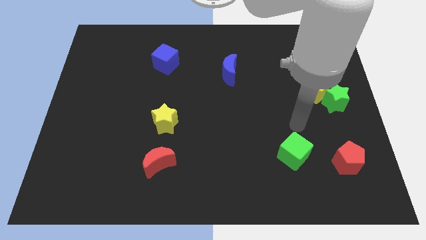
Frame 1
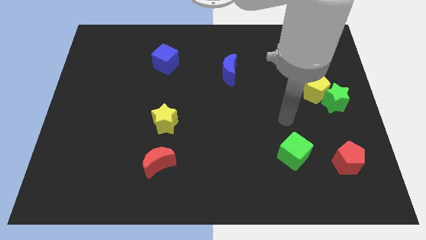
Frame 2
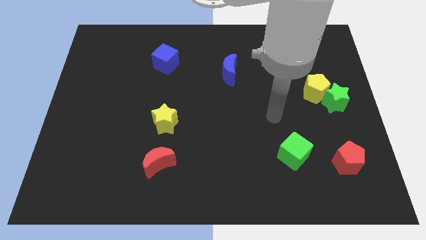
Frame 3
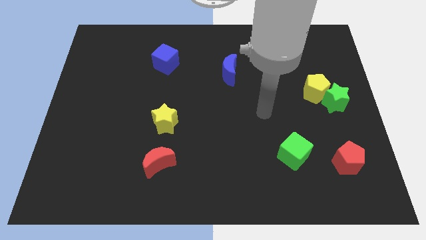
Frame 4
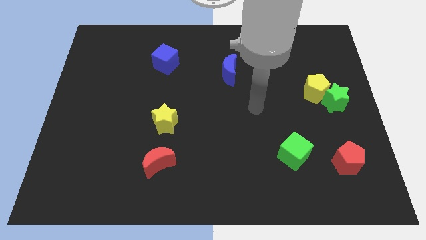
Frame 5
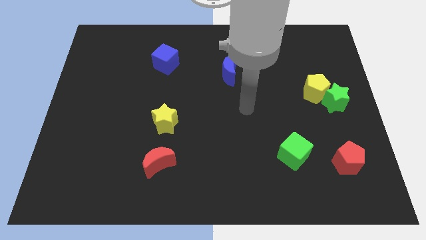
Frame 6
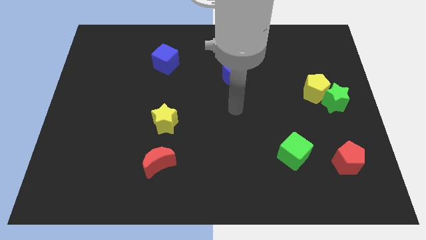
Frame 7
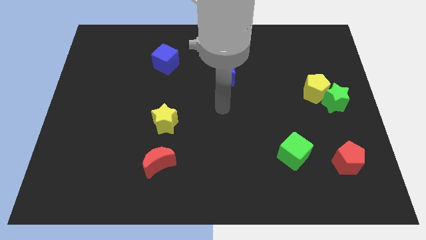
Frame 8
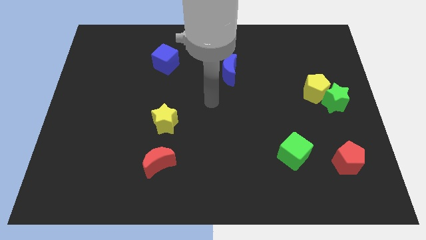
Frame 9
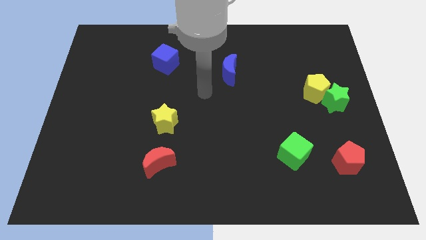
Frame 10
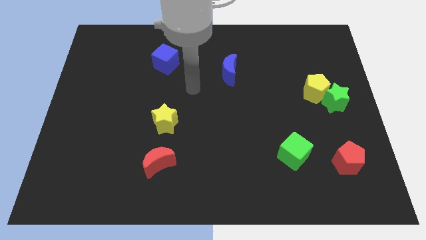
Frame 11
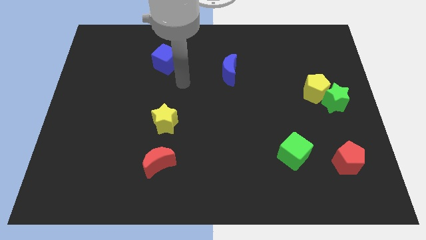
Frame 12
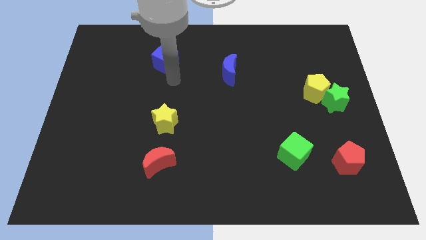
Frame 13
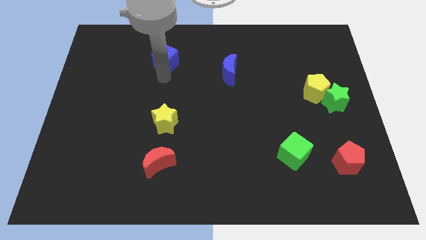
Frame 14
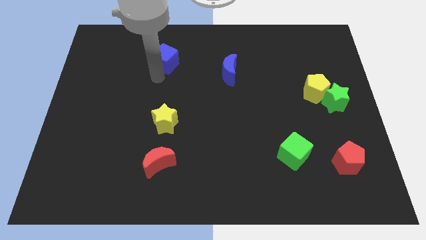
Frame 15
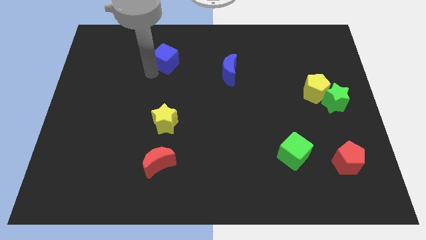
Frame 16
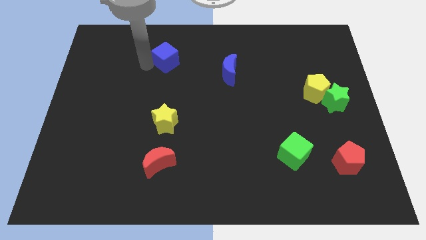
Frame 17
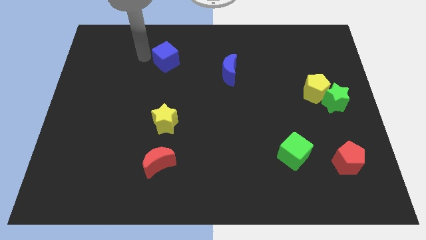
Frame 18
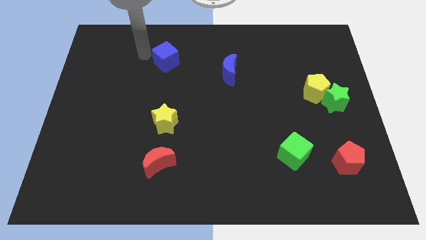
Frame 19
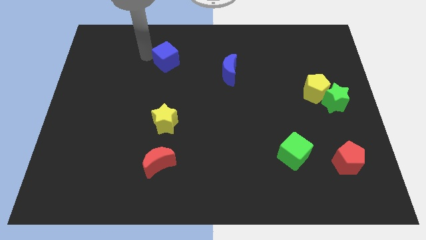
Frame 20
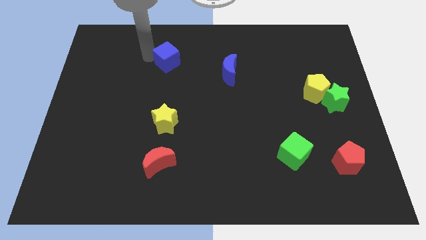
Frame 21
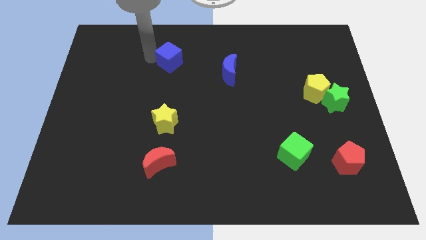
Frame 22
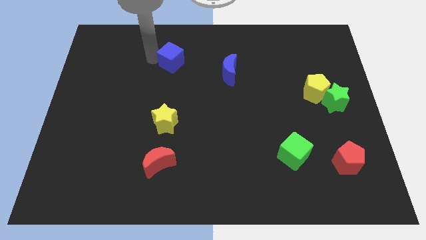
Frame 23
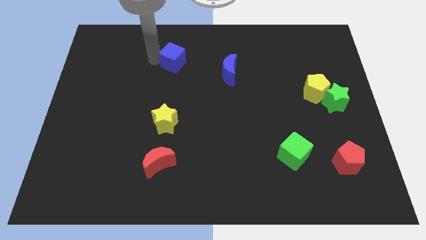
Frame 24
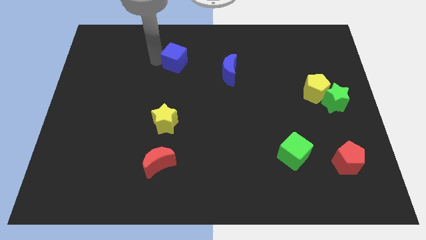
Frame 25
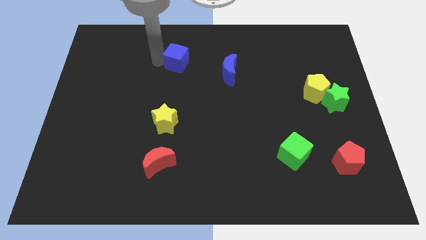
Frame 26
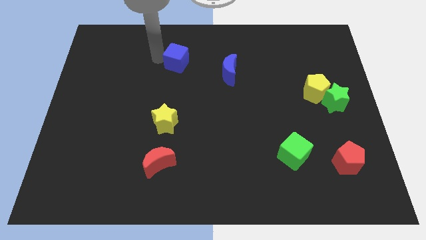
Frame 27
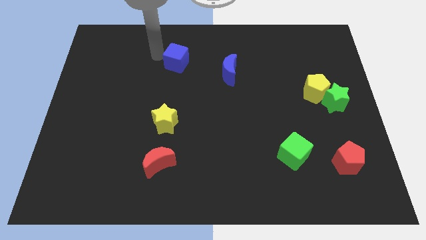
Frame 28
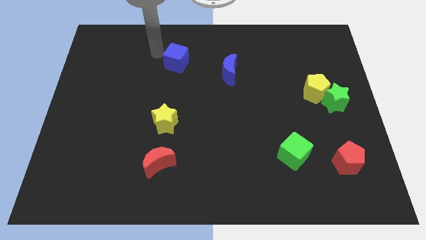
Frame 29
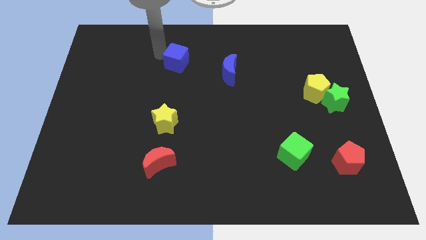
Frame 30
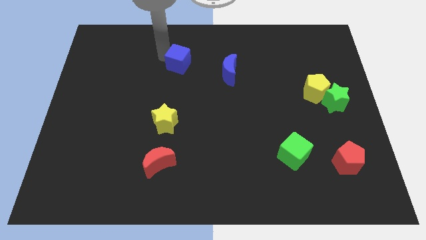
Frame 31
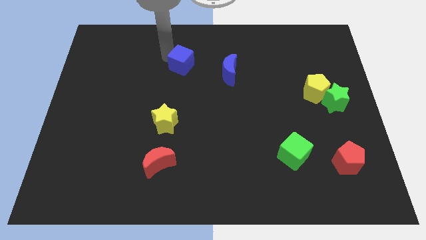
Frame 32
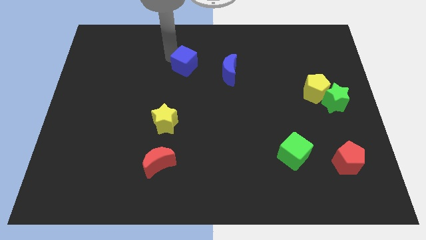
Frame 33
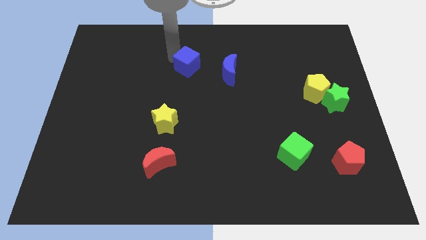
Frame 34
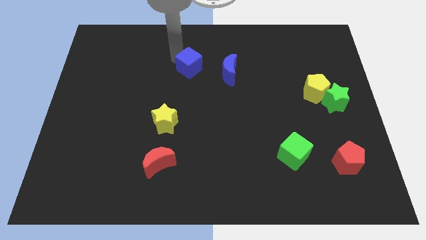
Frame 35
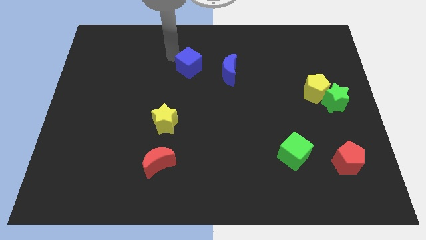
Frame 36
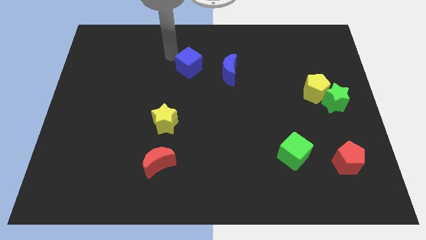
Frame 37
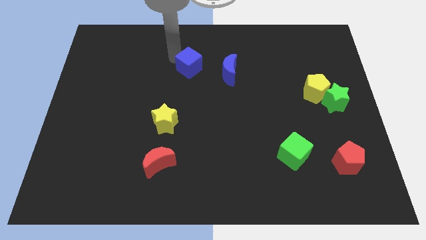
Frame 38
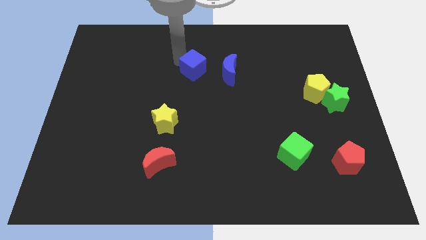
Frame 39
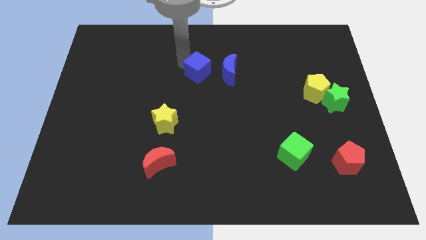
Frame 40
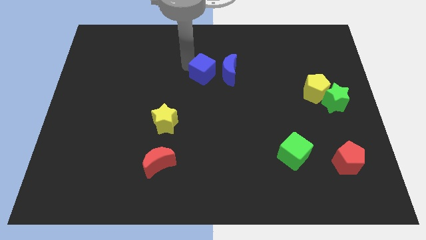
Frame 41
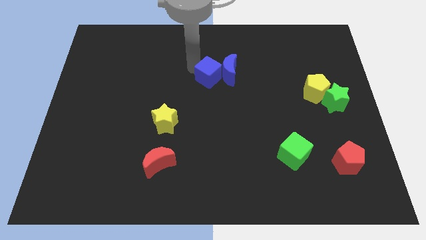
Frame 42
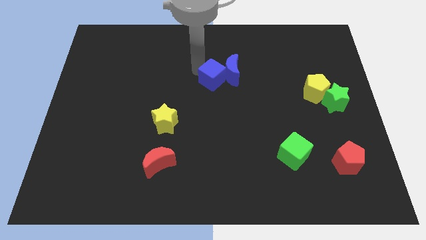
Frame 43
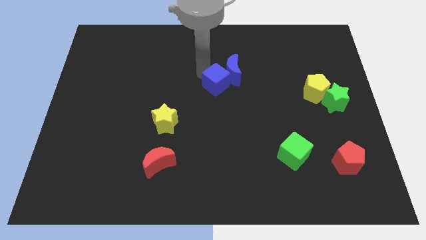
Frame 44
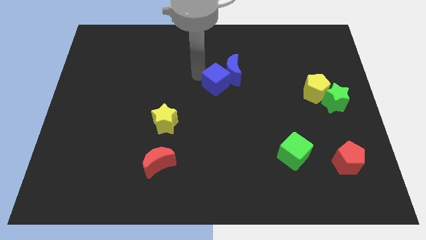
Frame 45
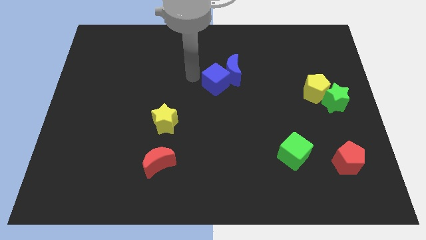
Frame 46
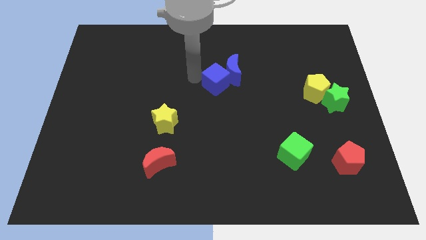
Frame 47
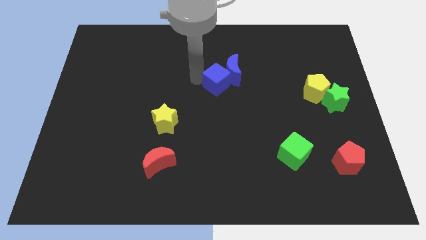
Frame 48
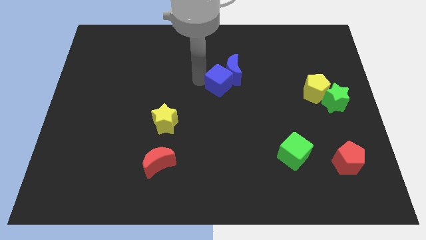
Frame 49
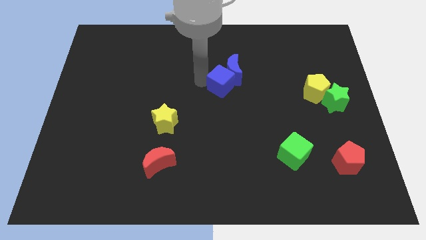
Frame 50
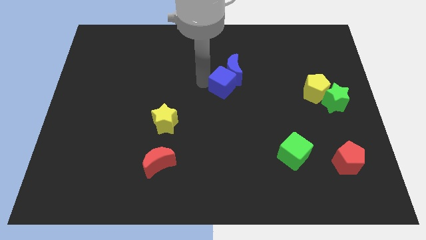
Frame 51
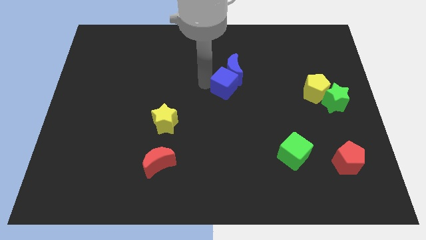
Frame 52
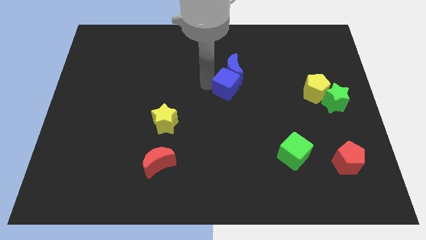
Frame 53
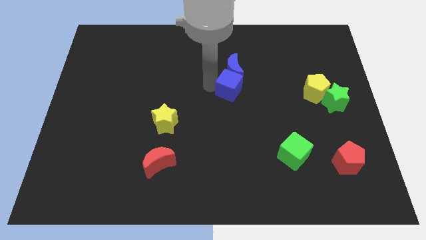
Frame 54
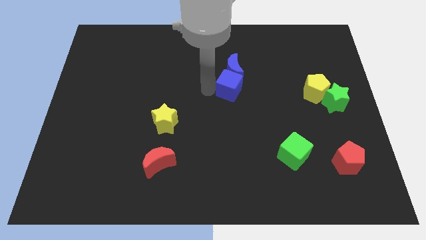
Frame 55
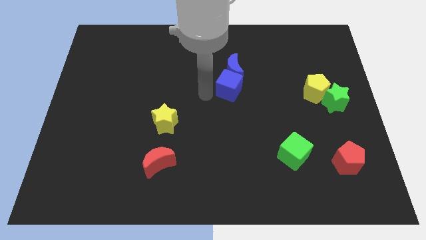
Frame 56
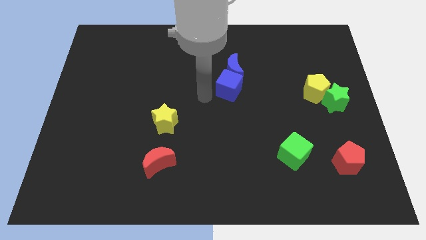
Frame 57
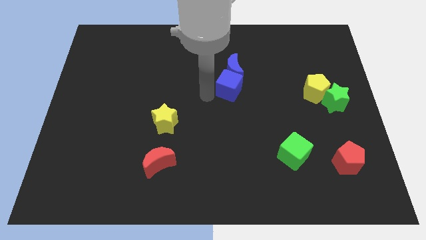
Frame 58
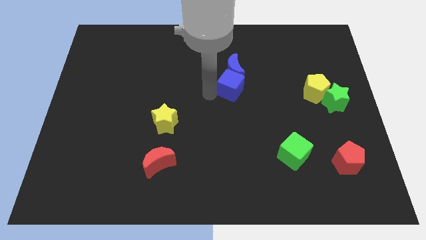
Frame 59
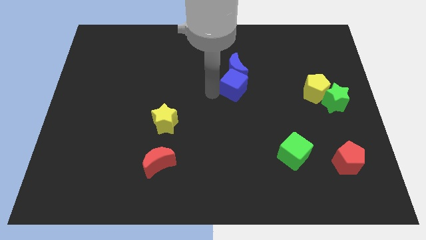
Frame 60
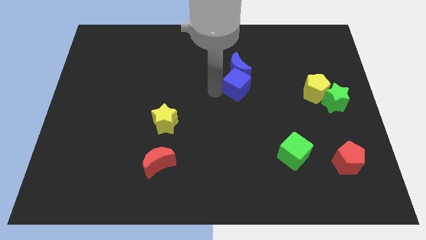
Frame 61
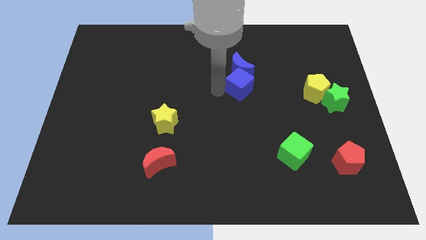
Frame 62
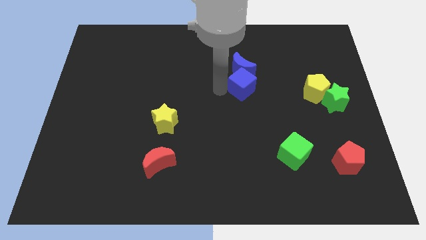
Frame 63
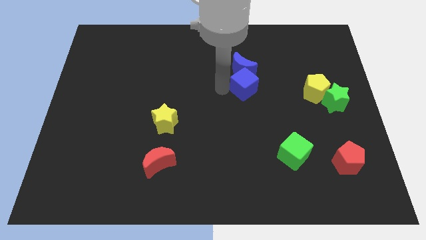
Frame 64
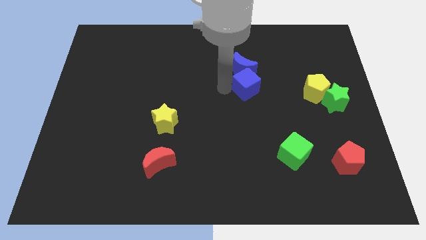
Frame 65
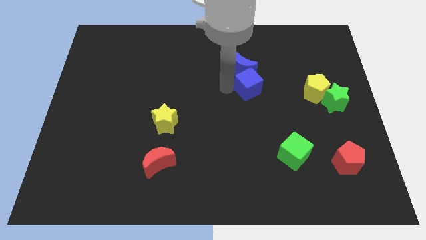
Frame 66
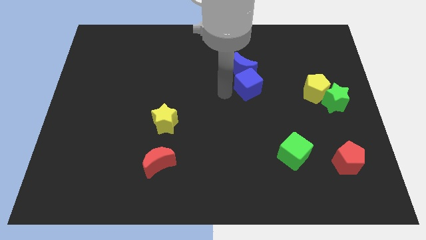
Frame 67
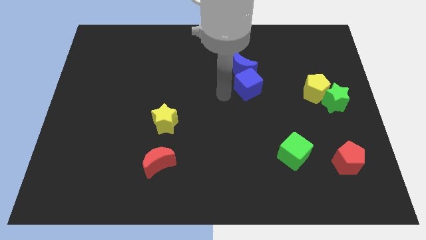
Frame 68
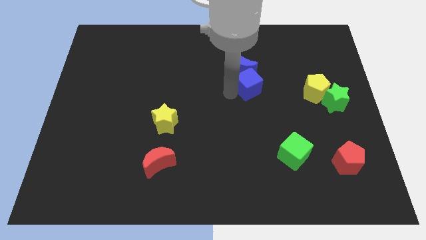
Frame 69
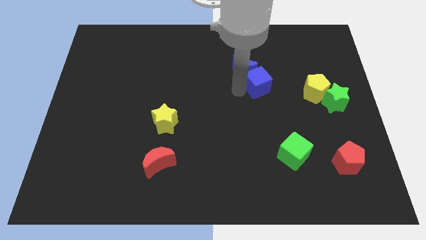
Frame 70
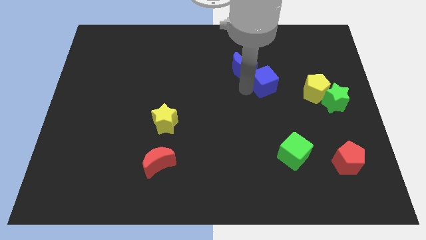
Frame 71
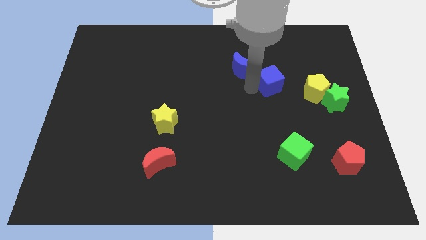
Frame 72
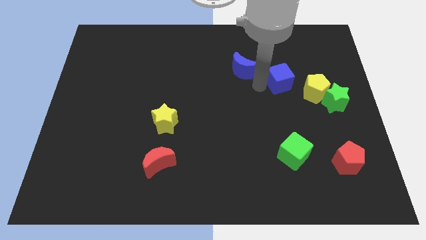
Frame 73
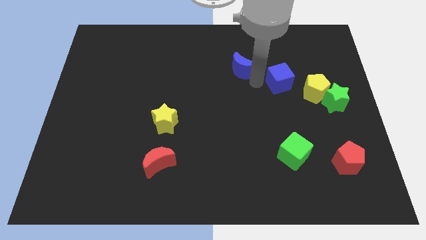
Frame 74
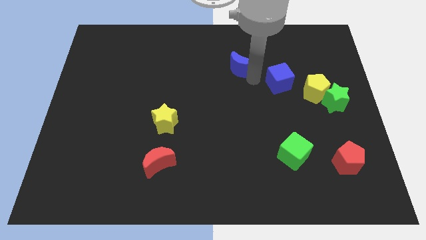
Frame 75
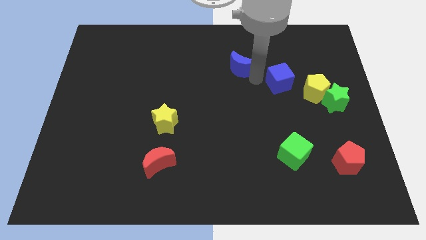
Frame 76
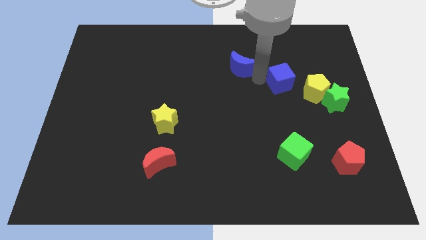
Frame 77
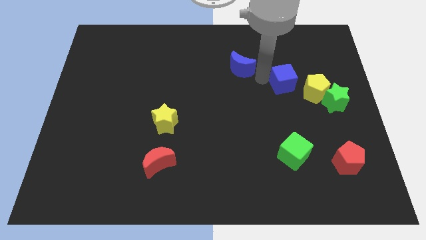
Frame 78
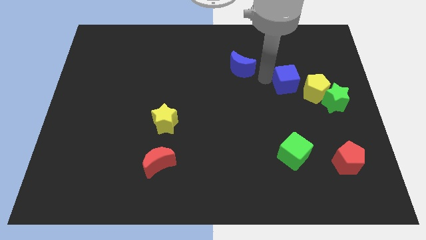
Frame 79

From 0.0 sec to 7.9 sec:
slide the blue cube to the top left of the green star

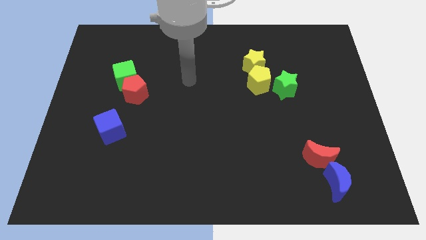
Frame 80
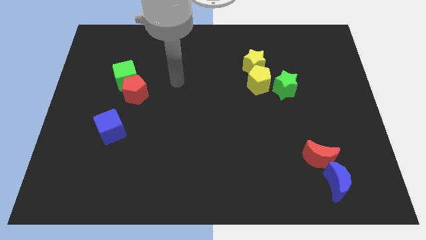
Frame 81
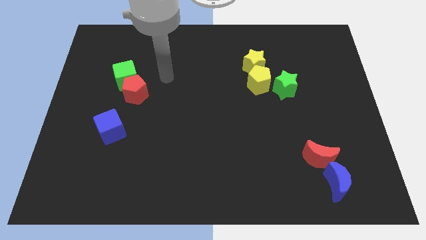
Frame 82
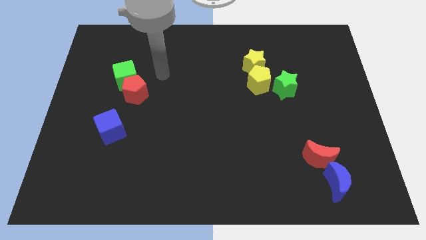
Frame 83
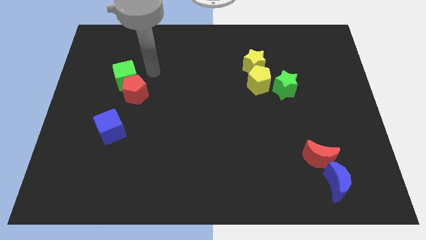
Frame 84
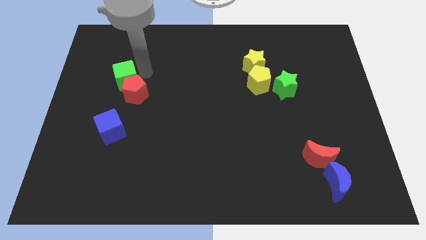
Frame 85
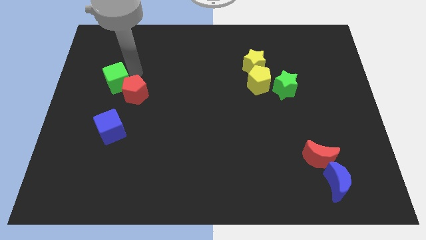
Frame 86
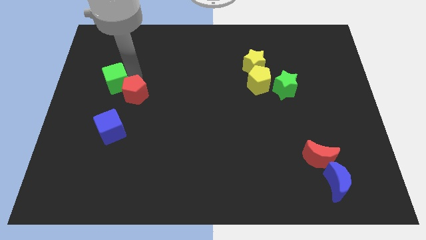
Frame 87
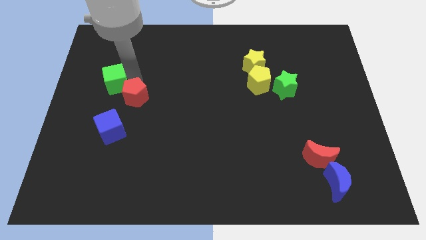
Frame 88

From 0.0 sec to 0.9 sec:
push the red pentagon to the top right of the blue cube
